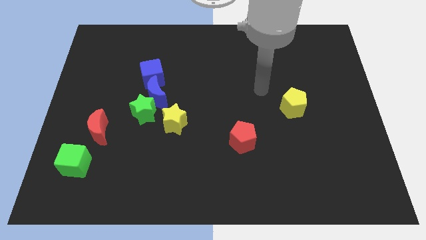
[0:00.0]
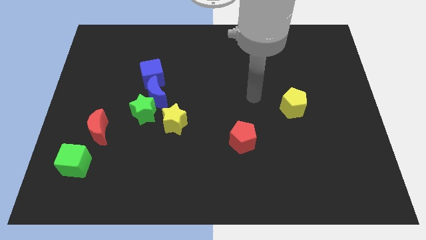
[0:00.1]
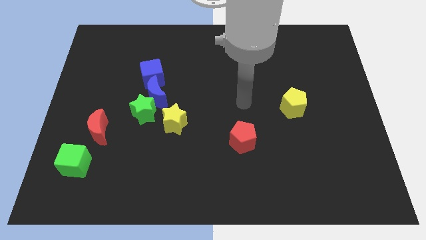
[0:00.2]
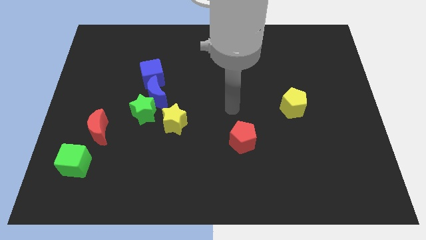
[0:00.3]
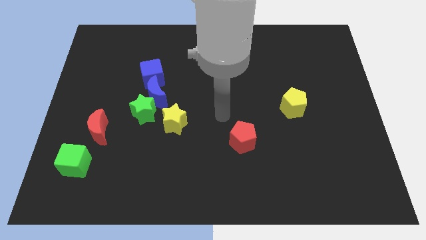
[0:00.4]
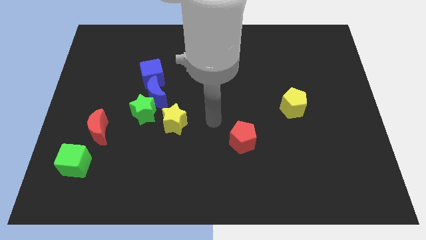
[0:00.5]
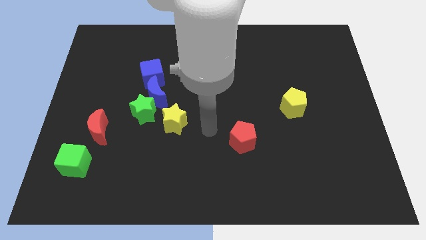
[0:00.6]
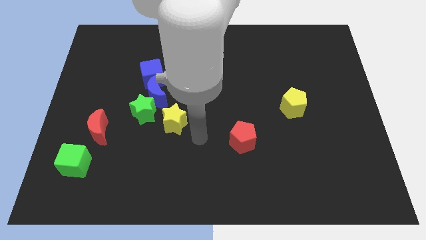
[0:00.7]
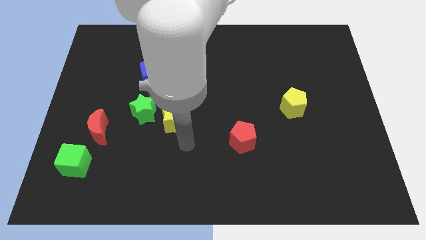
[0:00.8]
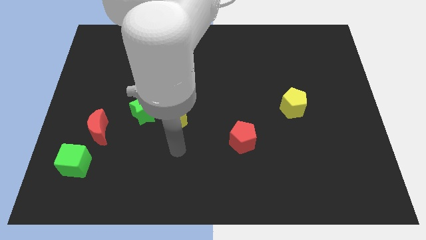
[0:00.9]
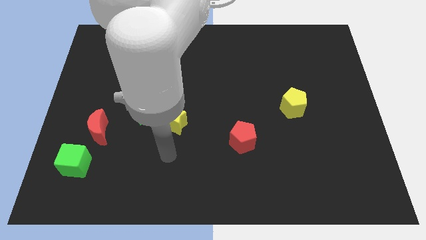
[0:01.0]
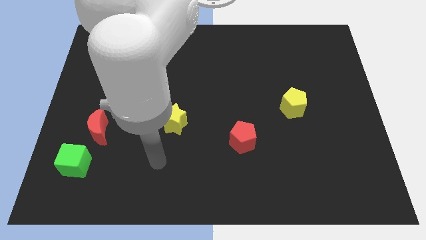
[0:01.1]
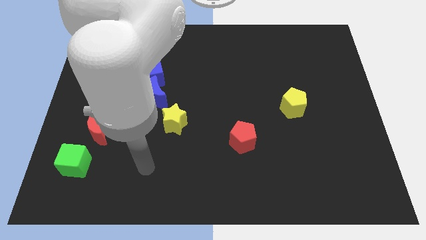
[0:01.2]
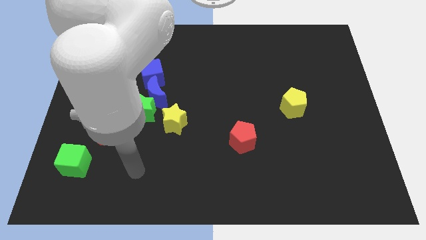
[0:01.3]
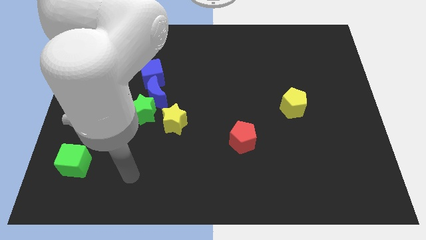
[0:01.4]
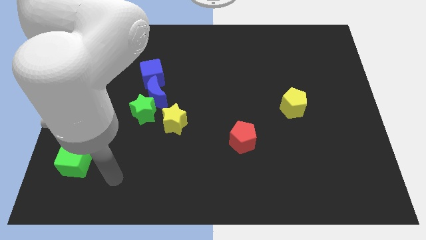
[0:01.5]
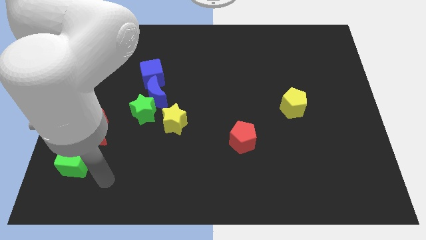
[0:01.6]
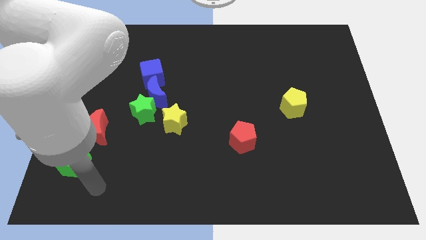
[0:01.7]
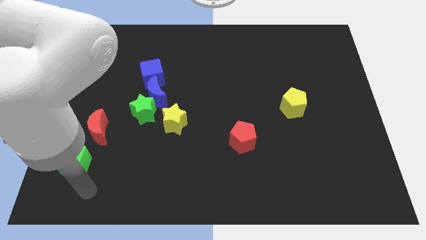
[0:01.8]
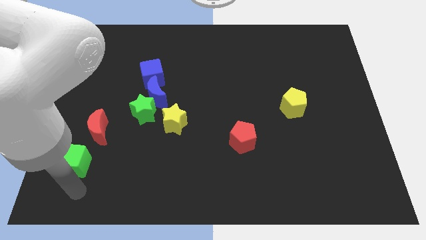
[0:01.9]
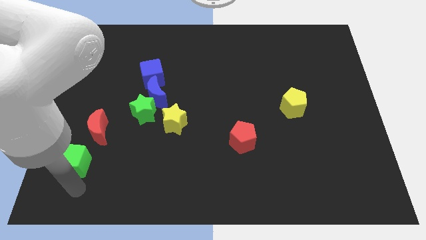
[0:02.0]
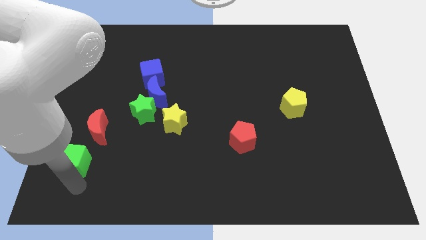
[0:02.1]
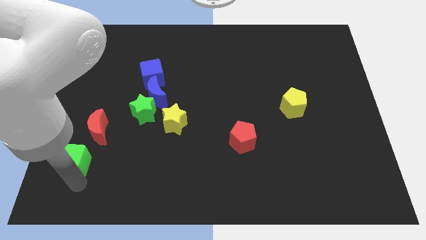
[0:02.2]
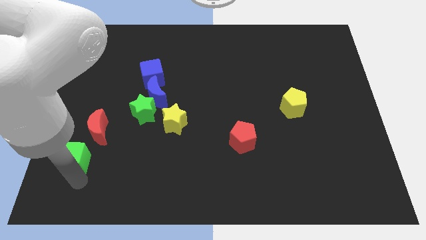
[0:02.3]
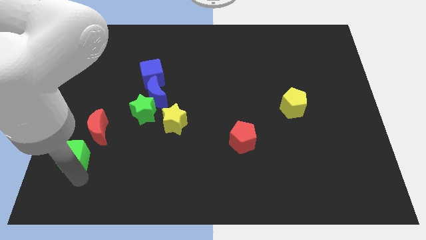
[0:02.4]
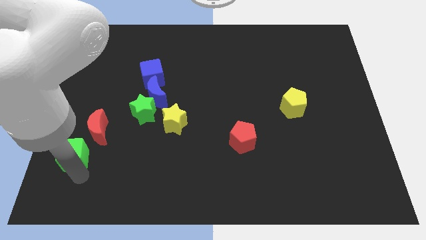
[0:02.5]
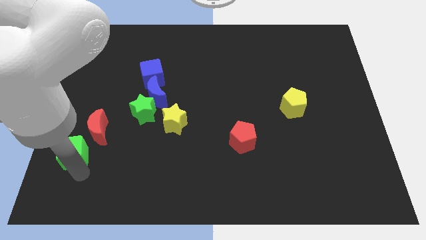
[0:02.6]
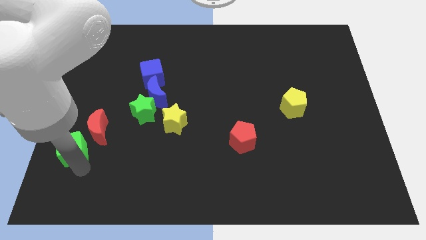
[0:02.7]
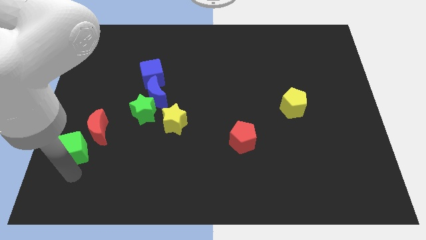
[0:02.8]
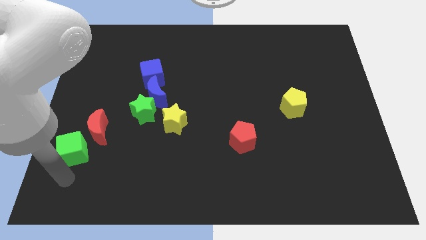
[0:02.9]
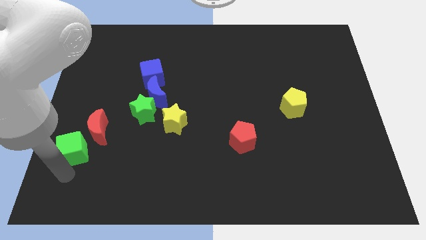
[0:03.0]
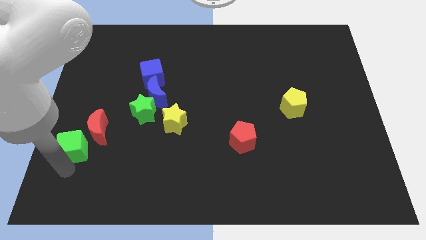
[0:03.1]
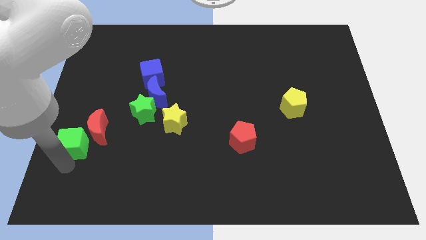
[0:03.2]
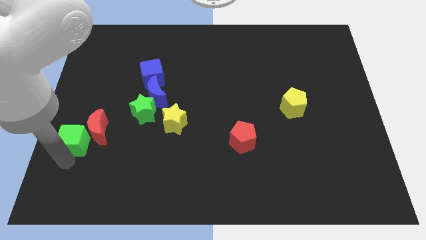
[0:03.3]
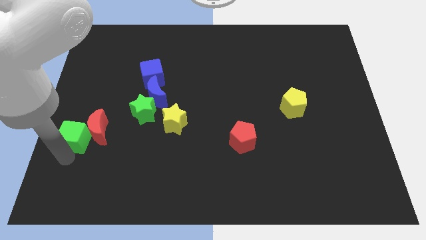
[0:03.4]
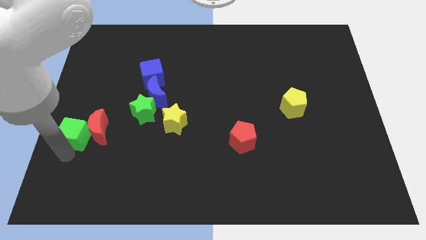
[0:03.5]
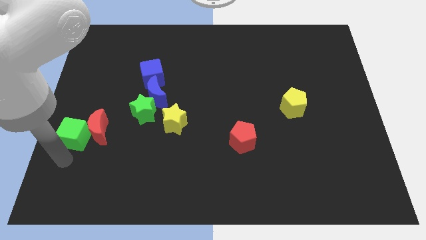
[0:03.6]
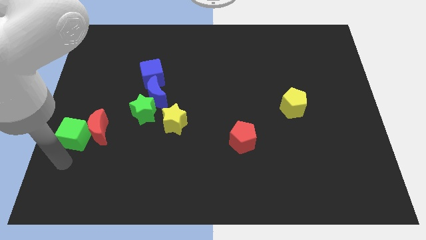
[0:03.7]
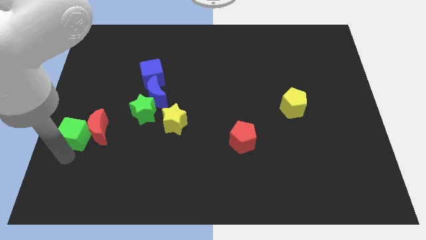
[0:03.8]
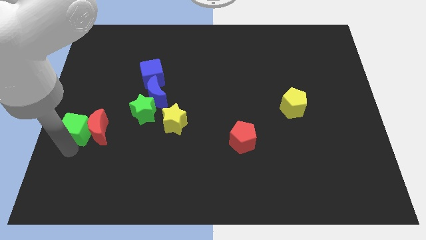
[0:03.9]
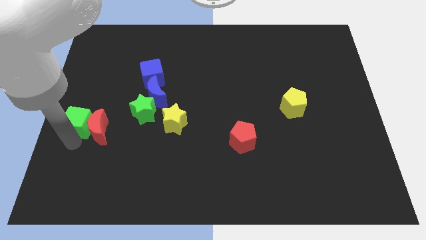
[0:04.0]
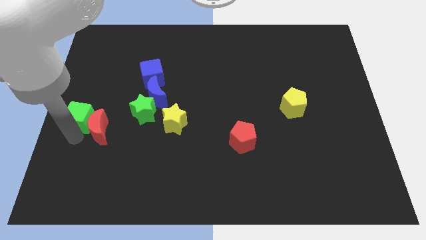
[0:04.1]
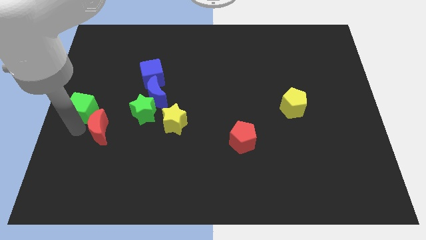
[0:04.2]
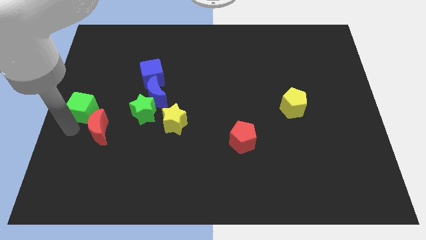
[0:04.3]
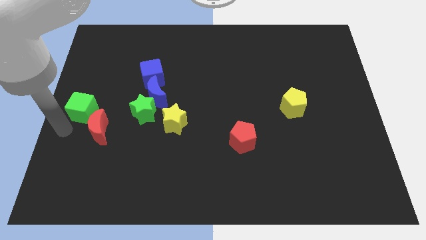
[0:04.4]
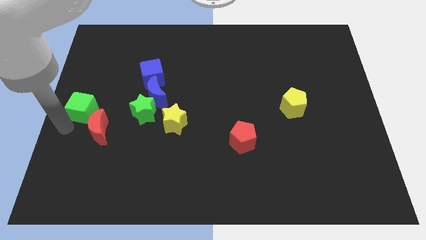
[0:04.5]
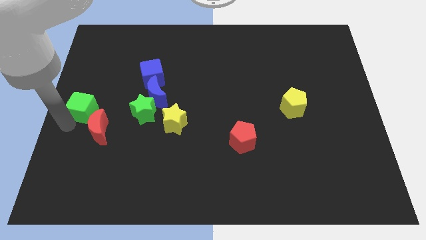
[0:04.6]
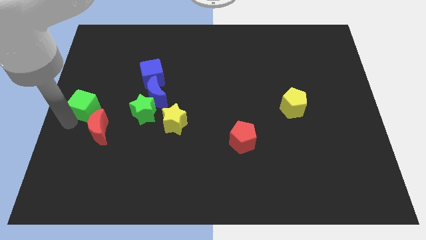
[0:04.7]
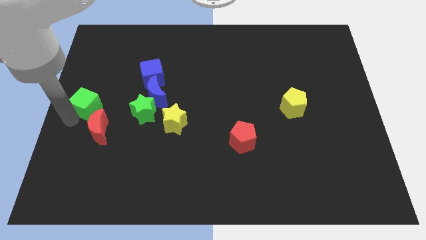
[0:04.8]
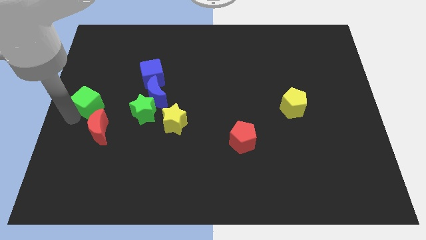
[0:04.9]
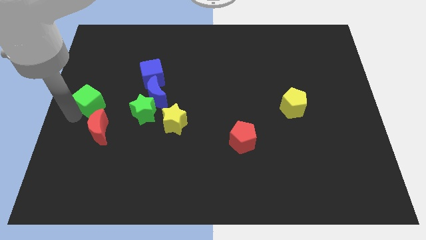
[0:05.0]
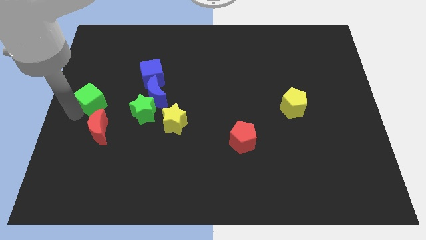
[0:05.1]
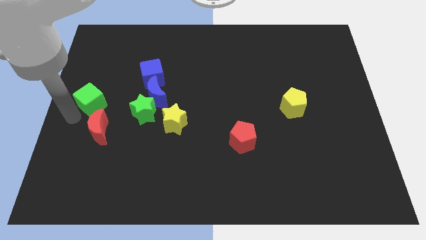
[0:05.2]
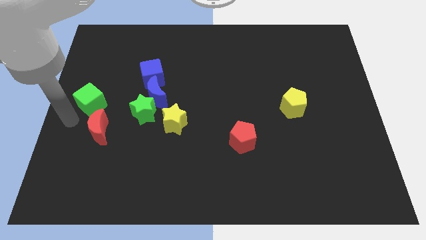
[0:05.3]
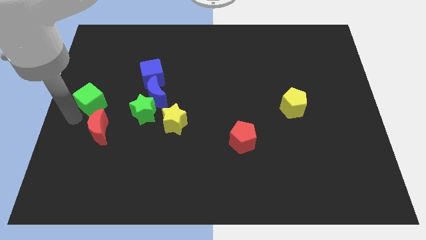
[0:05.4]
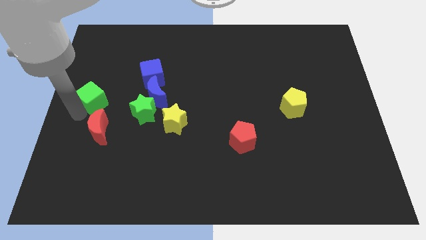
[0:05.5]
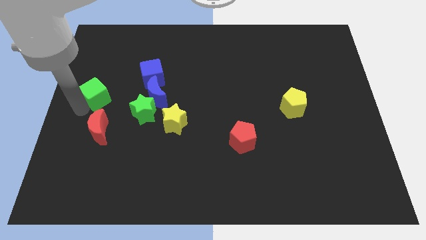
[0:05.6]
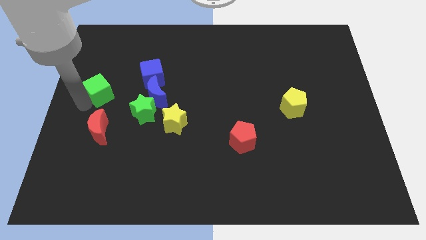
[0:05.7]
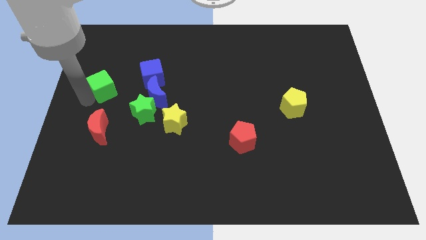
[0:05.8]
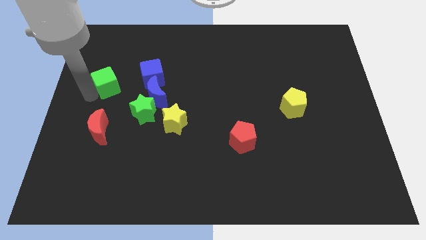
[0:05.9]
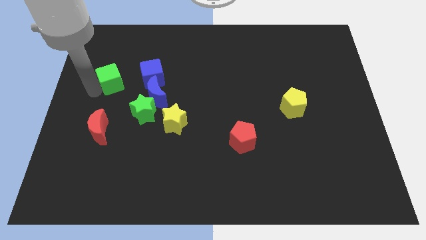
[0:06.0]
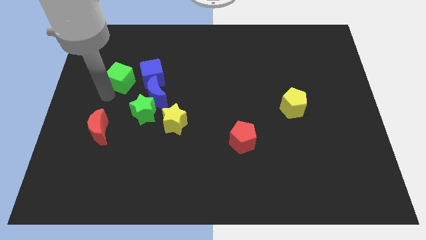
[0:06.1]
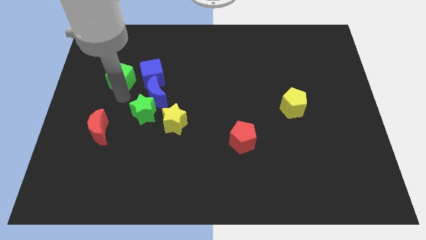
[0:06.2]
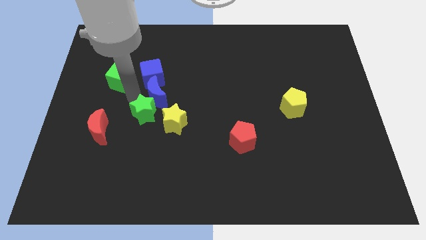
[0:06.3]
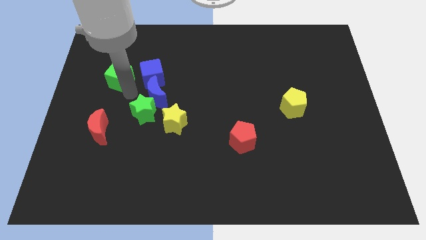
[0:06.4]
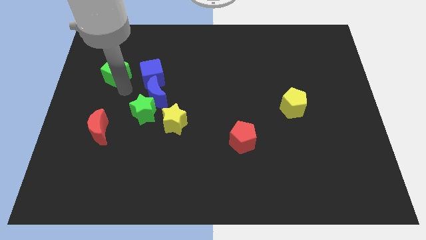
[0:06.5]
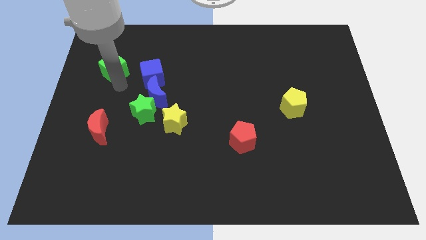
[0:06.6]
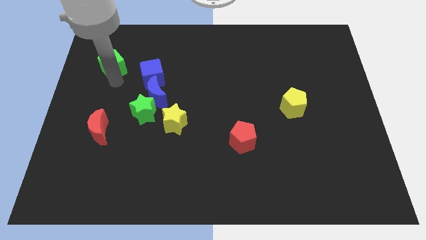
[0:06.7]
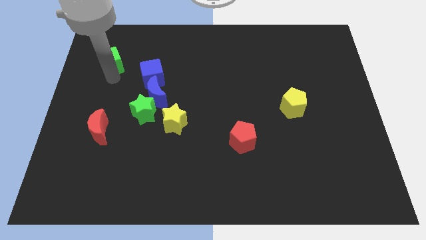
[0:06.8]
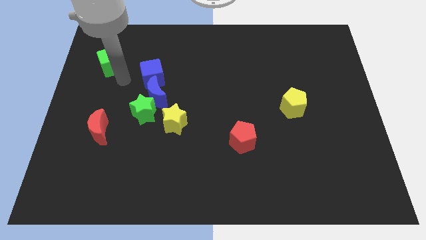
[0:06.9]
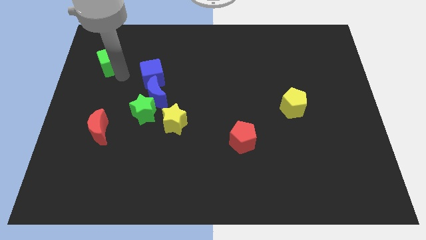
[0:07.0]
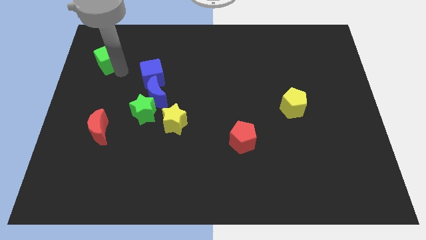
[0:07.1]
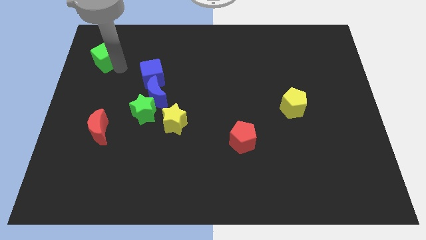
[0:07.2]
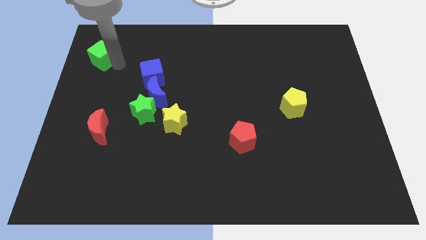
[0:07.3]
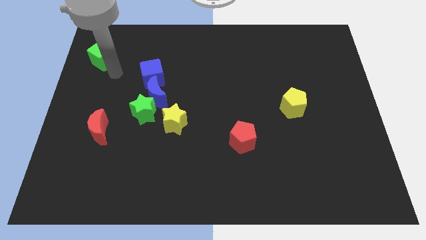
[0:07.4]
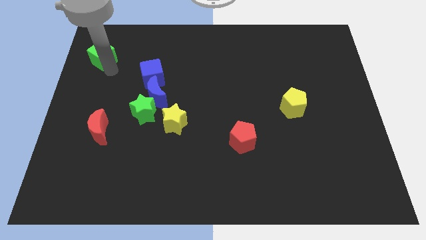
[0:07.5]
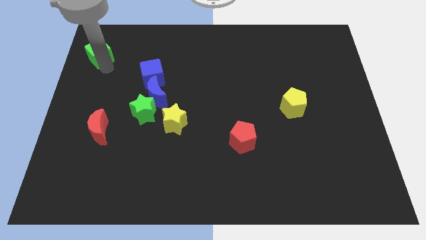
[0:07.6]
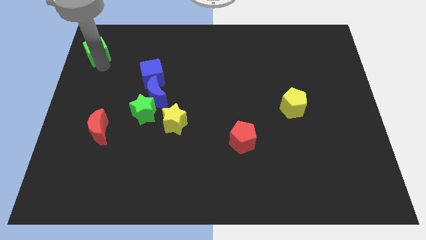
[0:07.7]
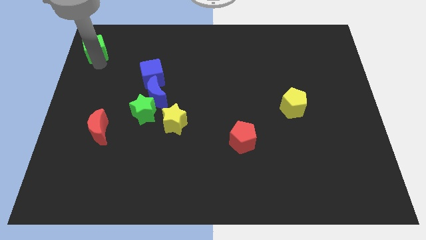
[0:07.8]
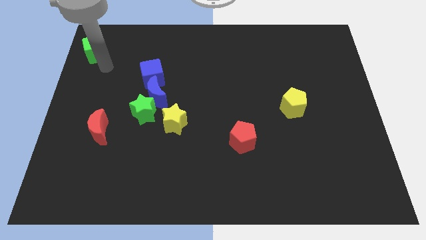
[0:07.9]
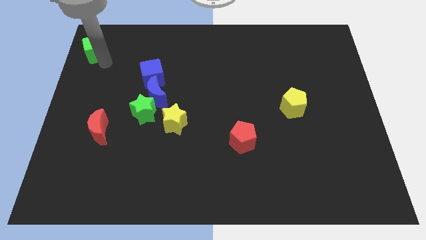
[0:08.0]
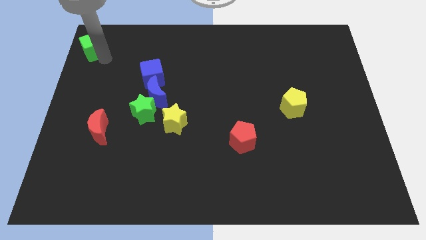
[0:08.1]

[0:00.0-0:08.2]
slide the green cube to the upper left corner
